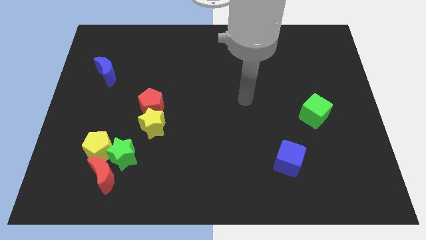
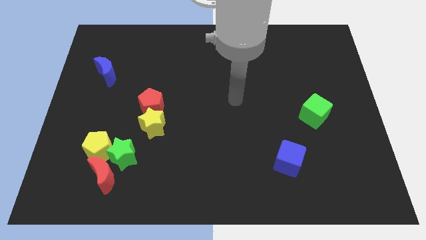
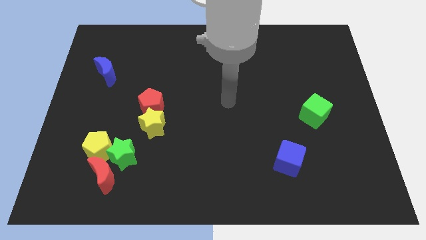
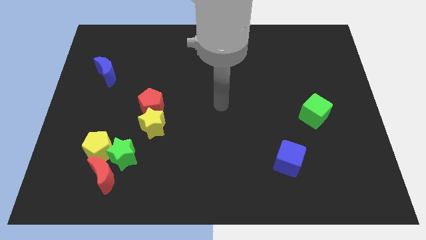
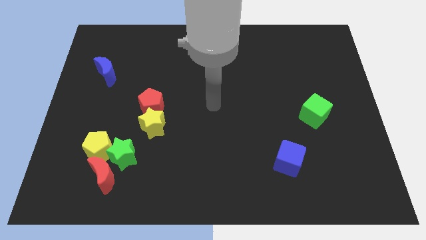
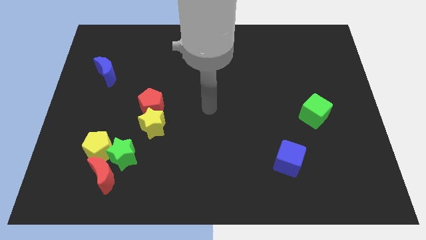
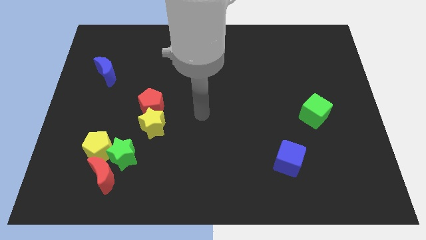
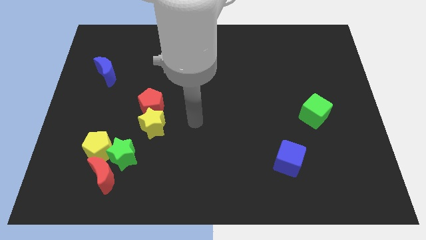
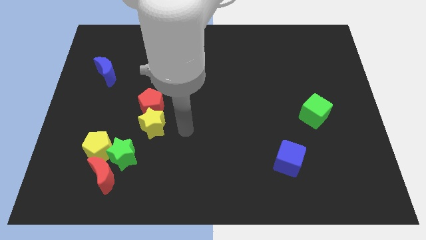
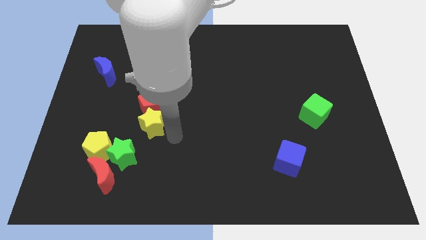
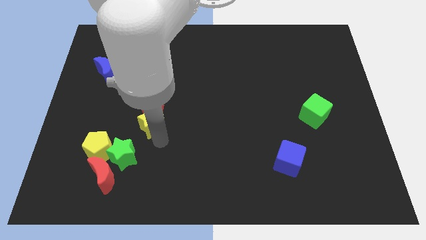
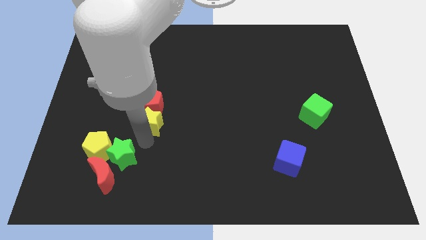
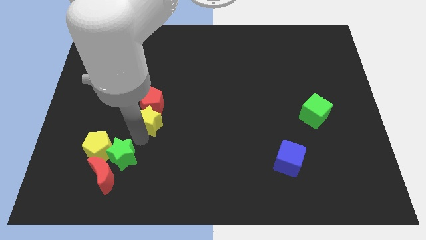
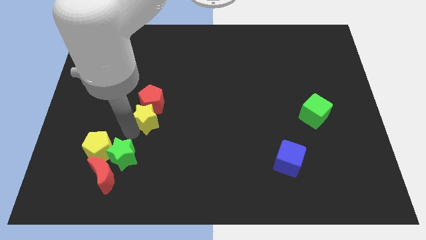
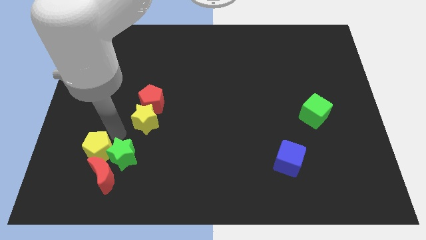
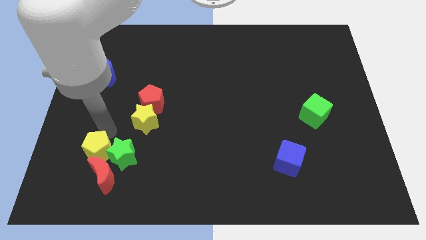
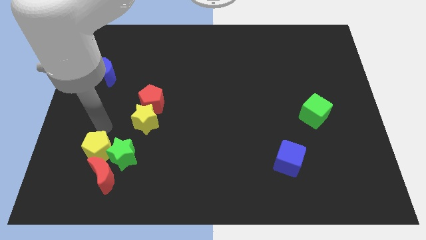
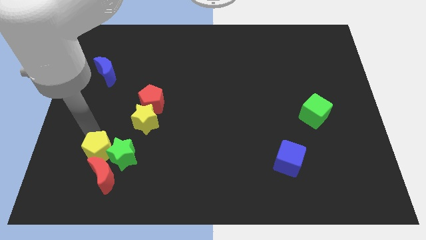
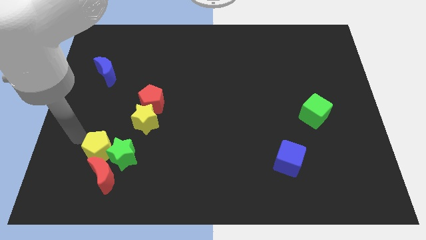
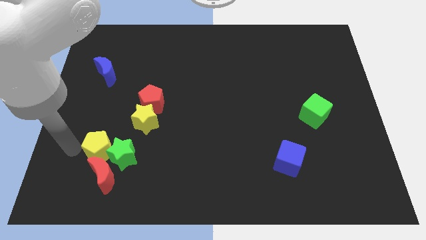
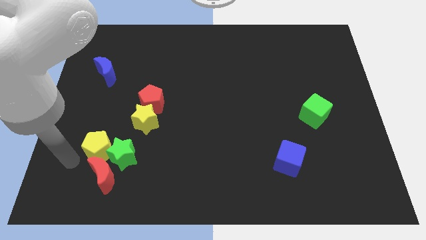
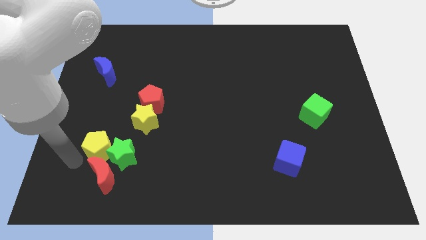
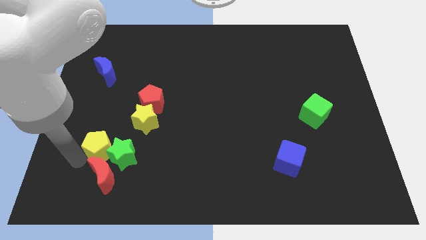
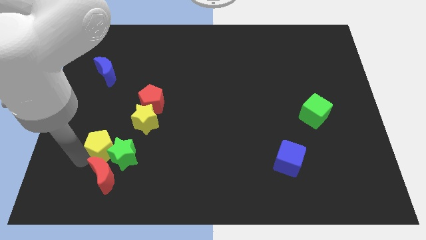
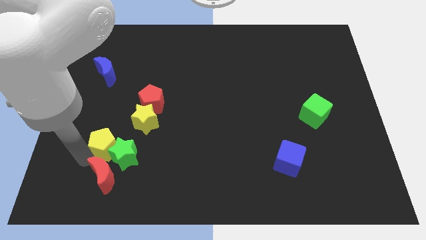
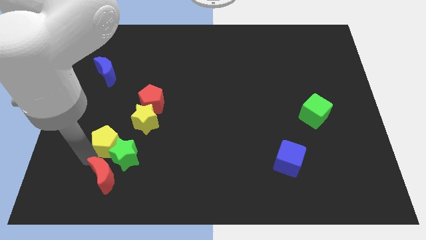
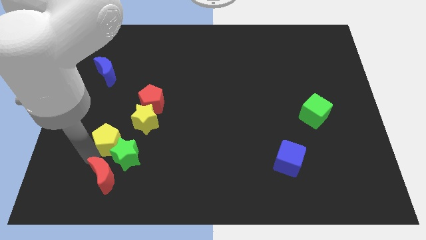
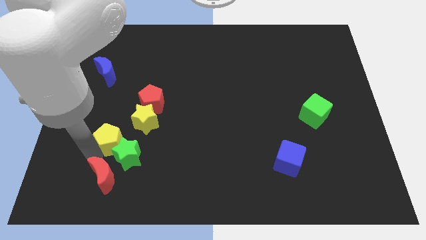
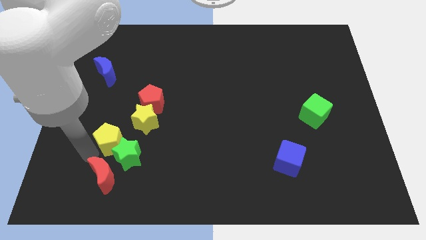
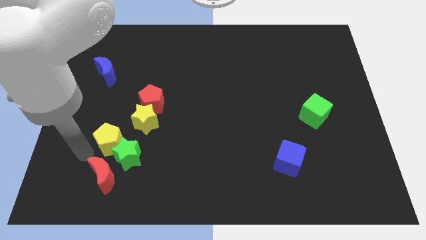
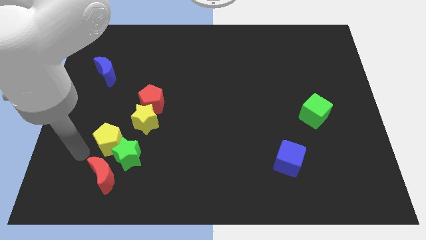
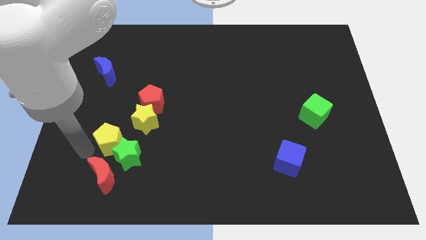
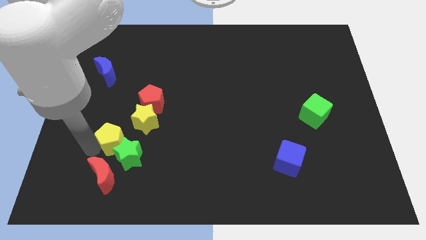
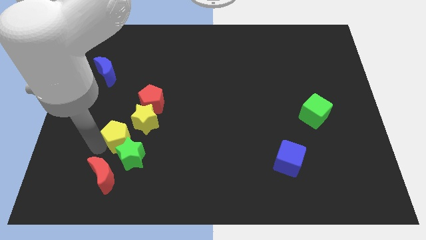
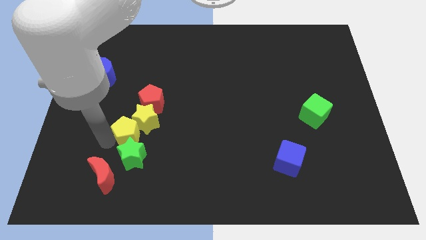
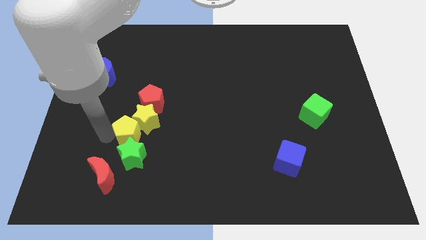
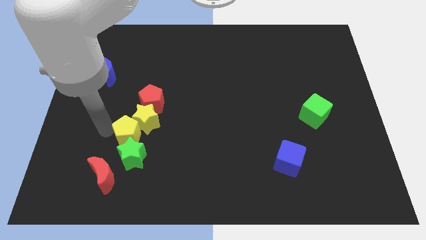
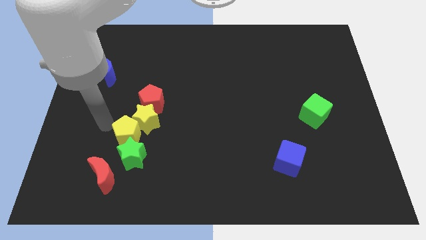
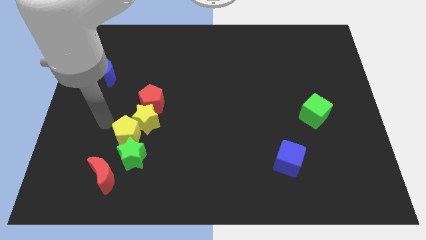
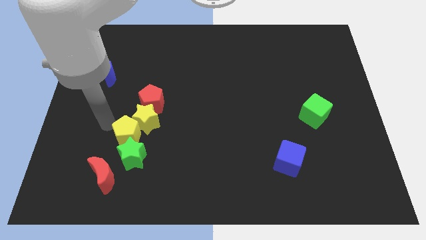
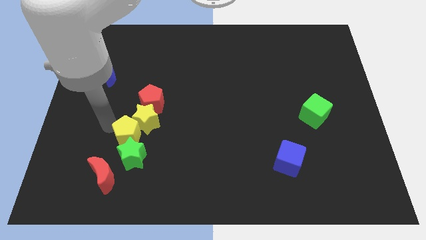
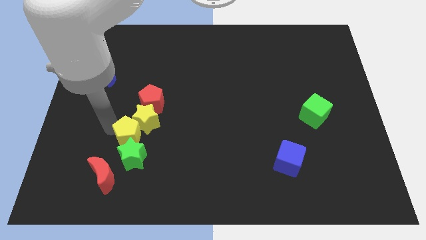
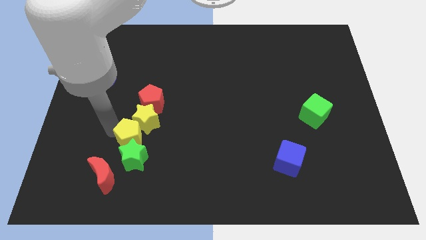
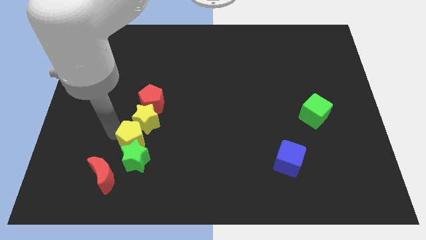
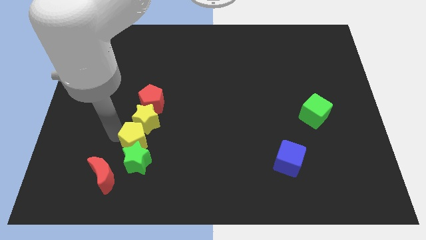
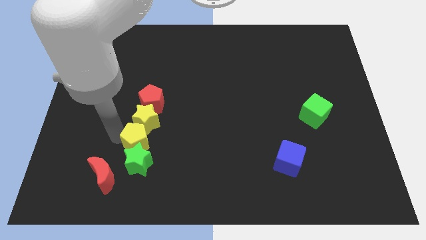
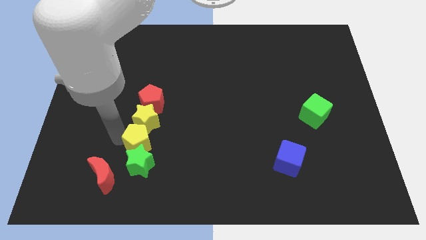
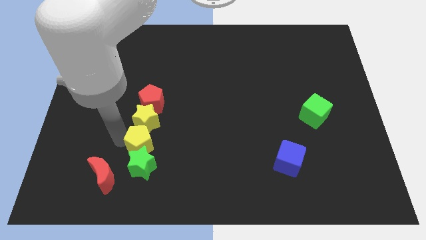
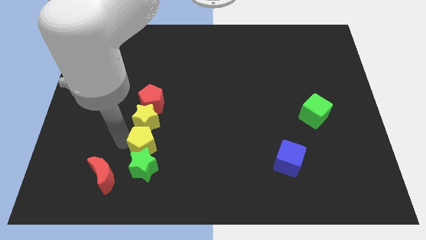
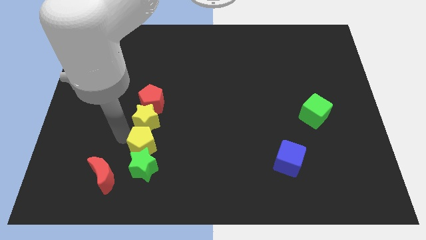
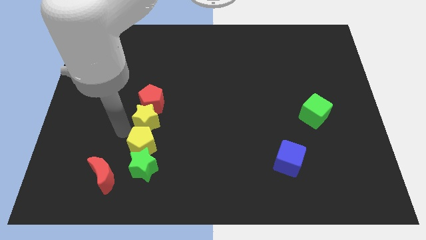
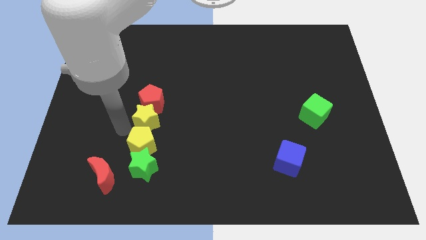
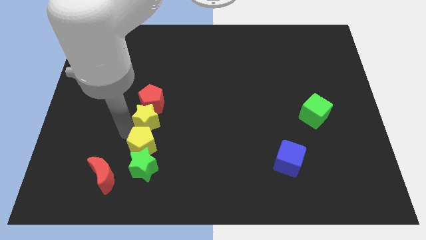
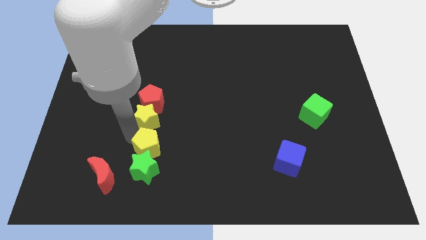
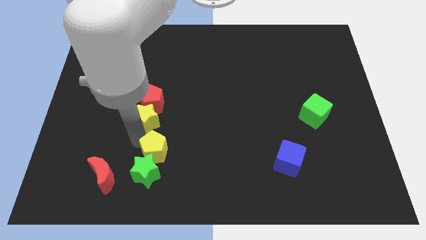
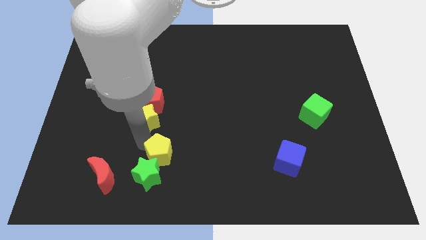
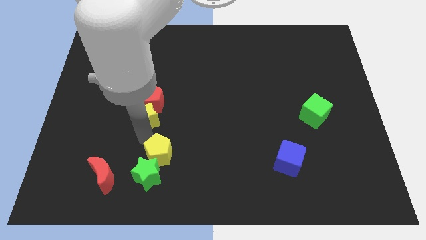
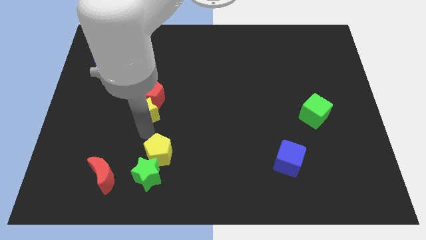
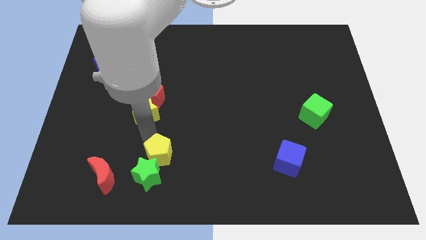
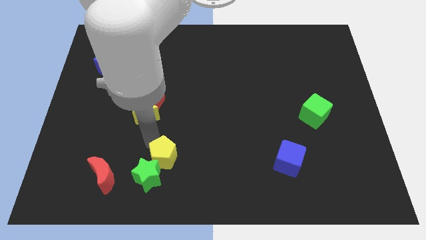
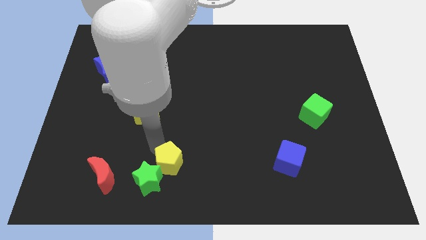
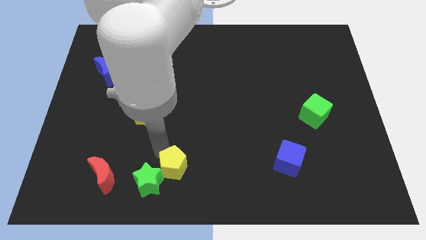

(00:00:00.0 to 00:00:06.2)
push the yellow pentagon to the bottom side
